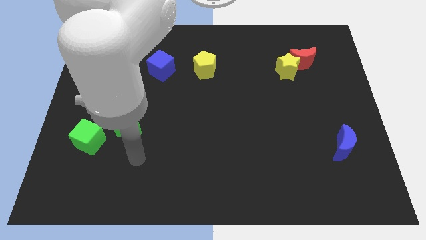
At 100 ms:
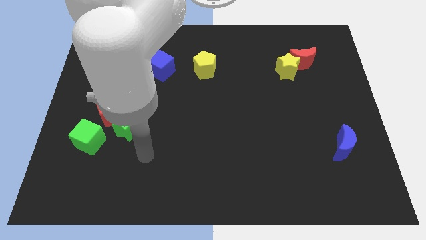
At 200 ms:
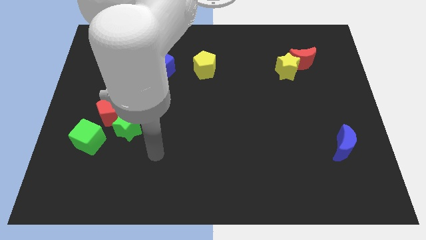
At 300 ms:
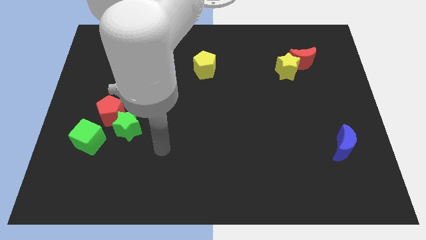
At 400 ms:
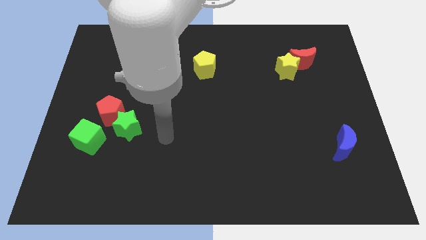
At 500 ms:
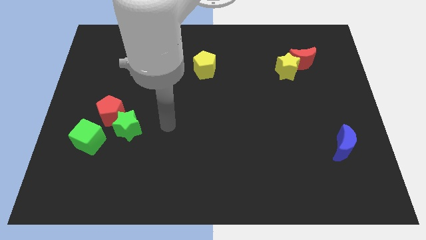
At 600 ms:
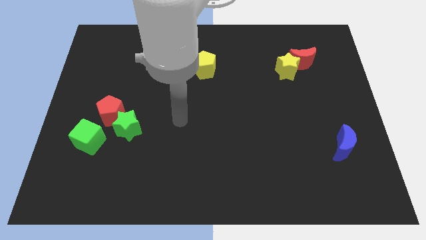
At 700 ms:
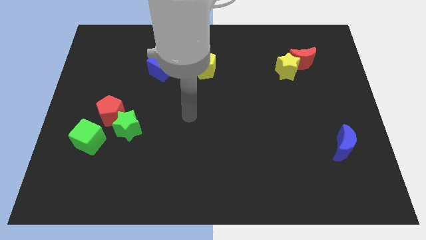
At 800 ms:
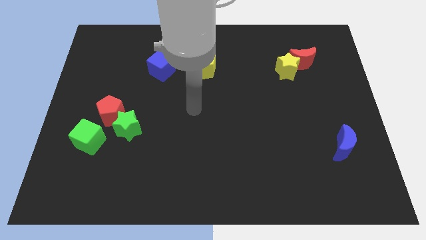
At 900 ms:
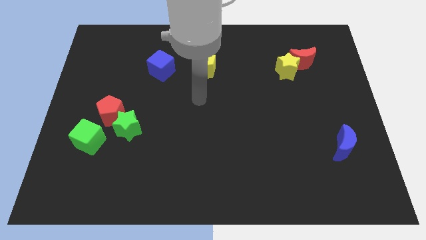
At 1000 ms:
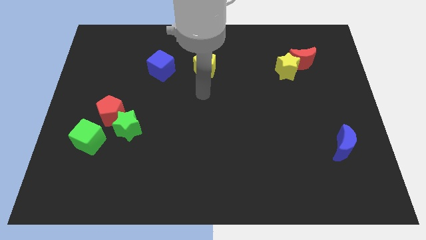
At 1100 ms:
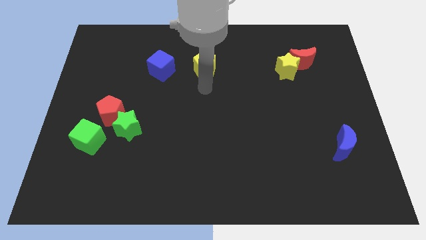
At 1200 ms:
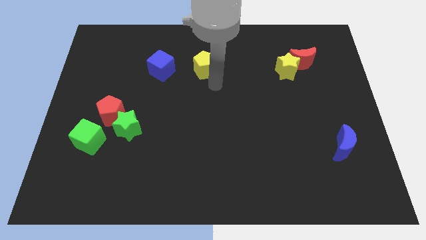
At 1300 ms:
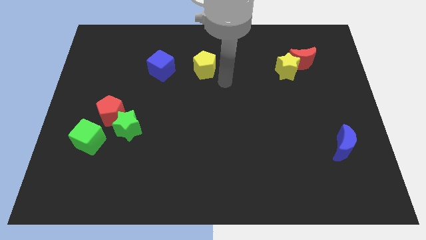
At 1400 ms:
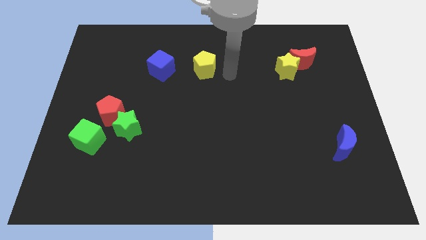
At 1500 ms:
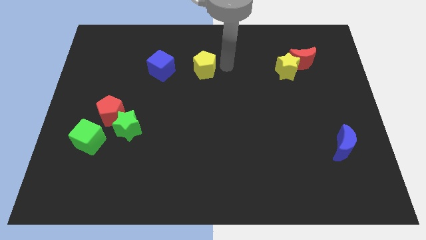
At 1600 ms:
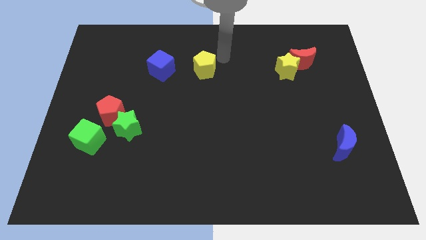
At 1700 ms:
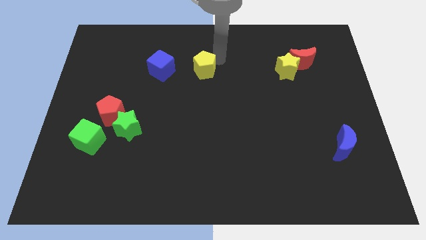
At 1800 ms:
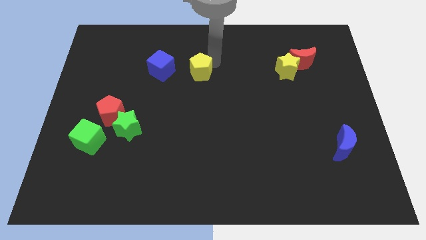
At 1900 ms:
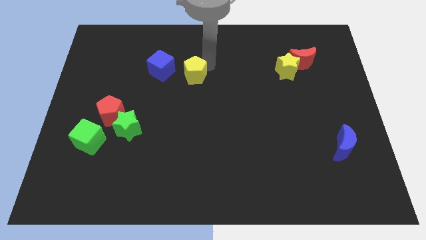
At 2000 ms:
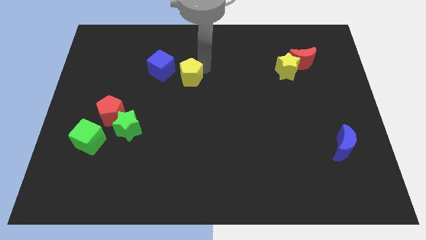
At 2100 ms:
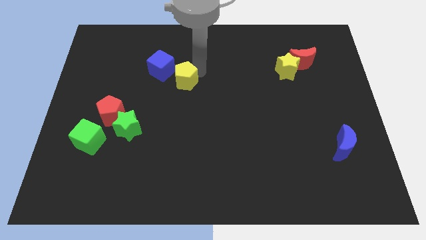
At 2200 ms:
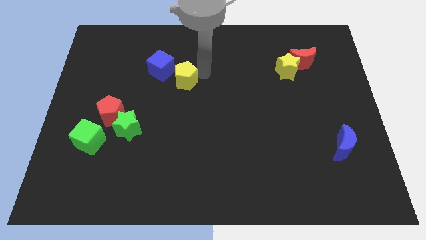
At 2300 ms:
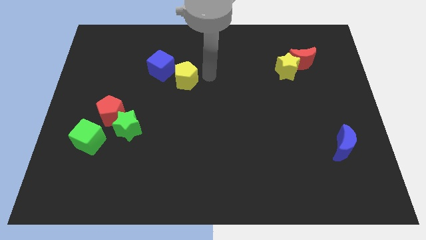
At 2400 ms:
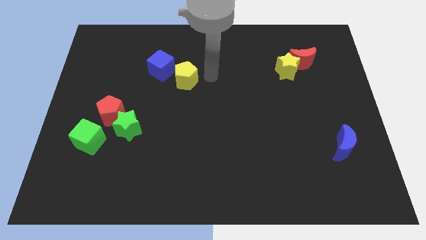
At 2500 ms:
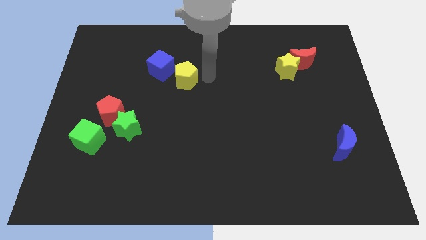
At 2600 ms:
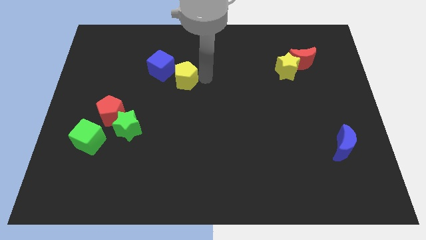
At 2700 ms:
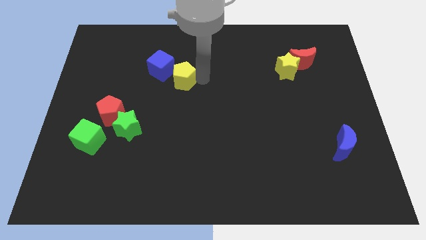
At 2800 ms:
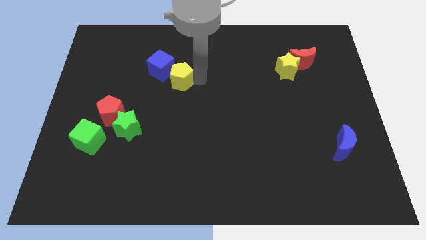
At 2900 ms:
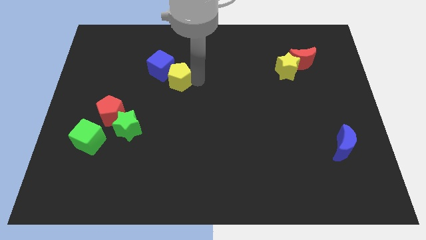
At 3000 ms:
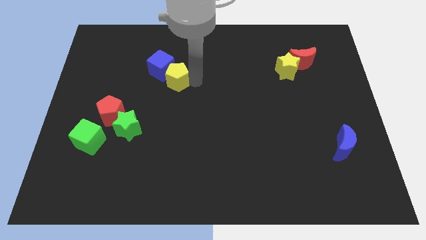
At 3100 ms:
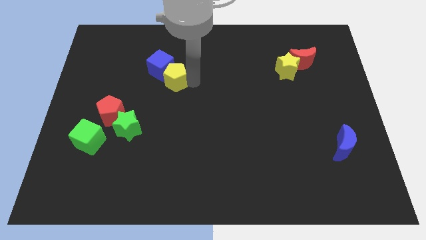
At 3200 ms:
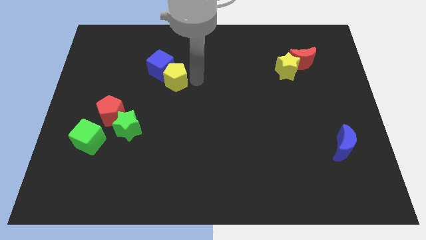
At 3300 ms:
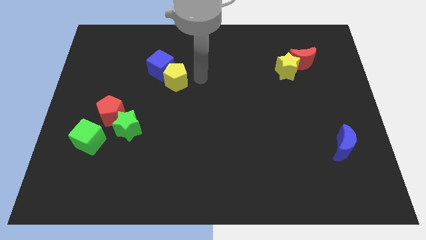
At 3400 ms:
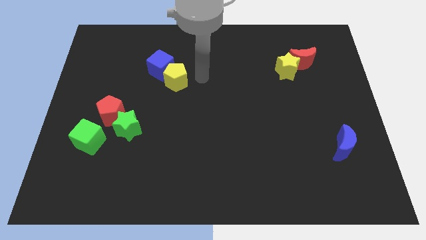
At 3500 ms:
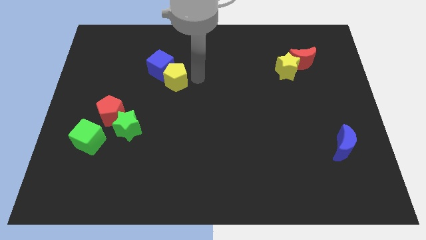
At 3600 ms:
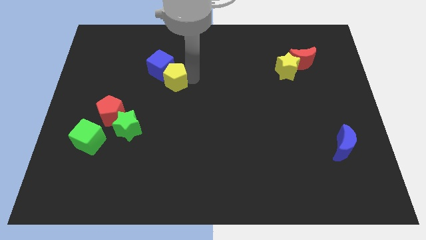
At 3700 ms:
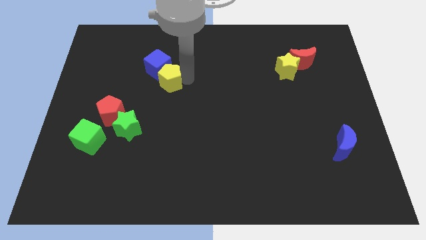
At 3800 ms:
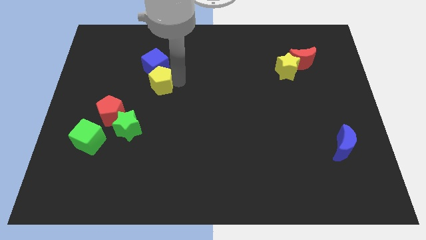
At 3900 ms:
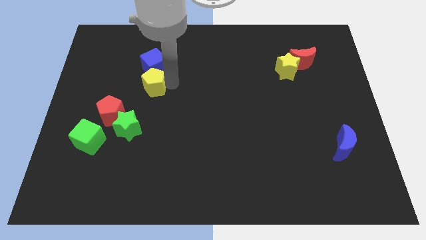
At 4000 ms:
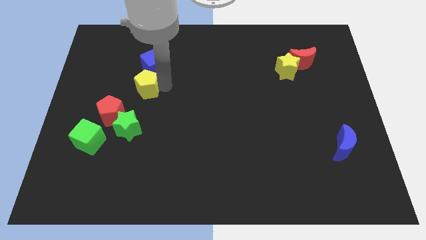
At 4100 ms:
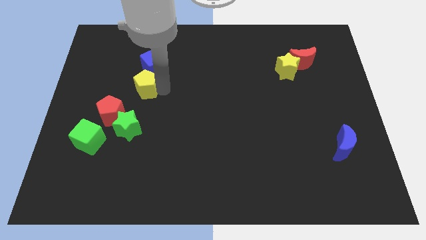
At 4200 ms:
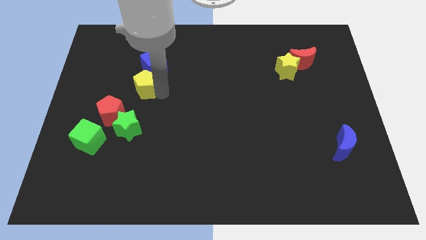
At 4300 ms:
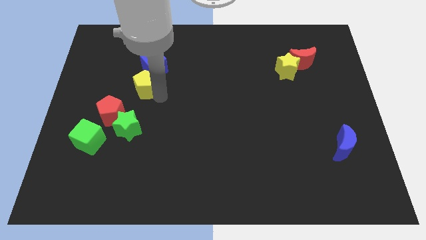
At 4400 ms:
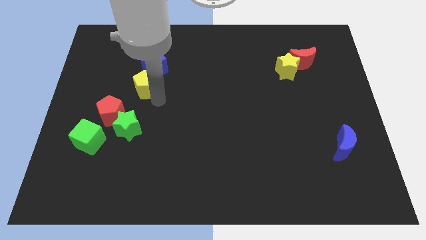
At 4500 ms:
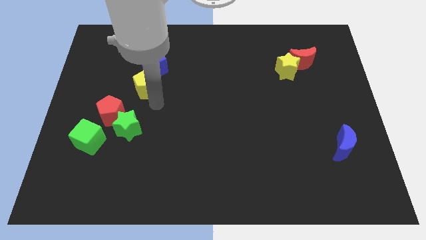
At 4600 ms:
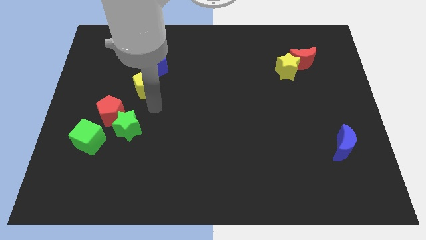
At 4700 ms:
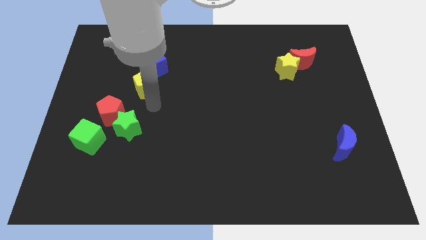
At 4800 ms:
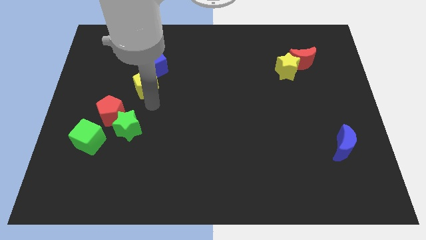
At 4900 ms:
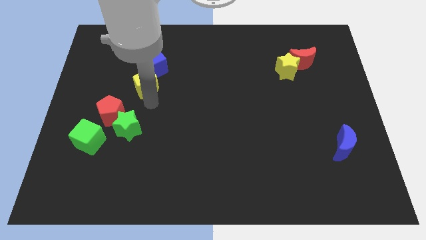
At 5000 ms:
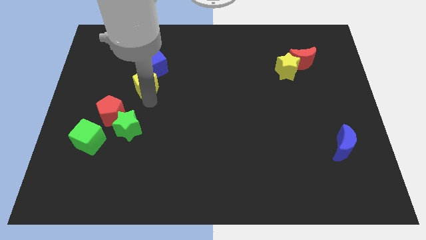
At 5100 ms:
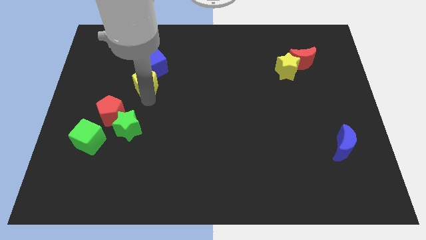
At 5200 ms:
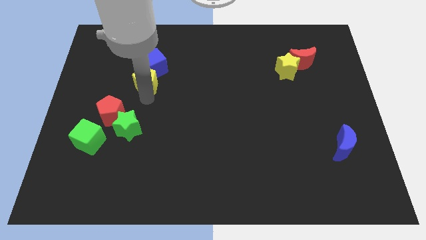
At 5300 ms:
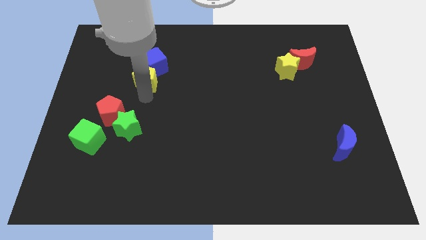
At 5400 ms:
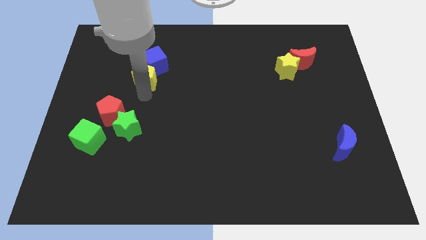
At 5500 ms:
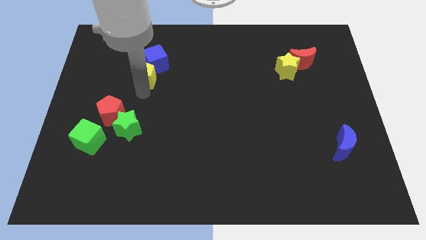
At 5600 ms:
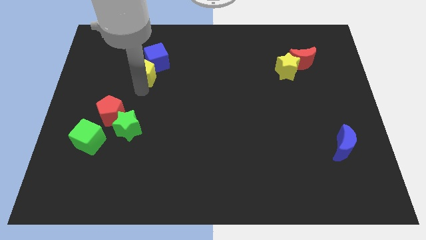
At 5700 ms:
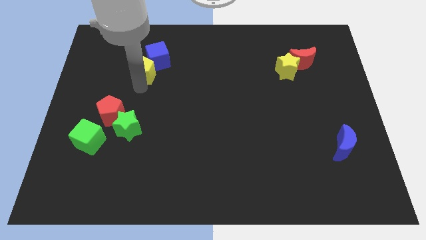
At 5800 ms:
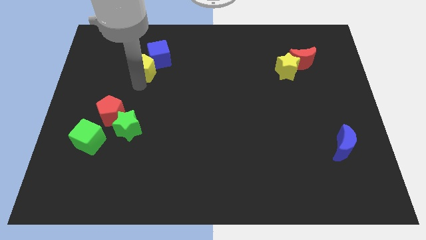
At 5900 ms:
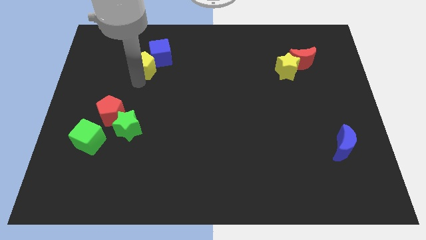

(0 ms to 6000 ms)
push the yellow pentagon left of the blue cube

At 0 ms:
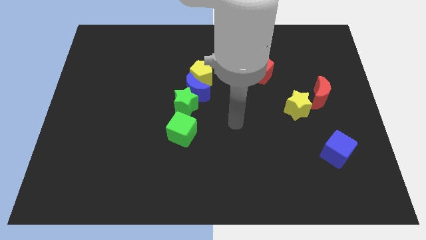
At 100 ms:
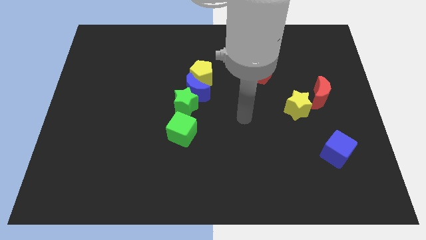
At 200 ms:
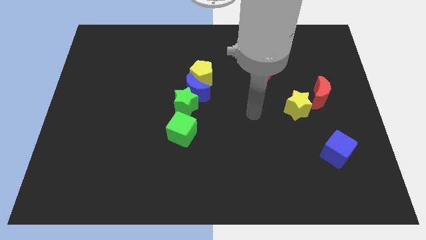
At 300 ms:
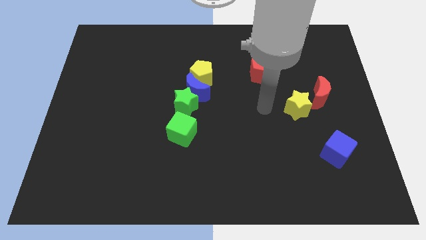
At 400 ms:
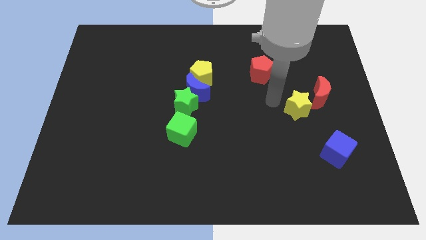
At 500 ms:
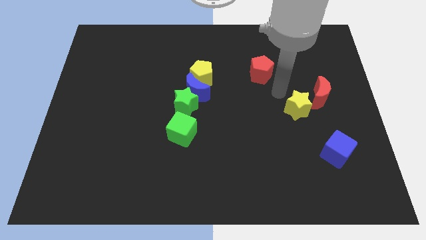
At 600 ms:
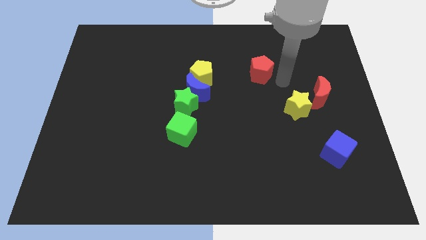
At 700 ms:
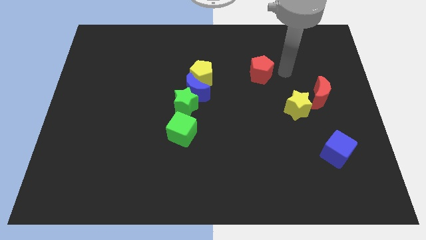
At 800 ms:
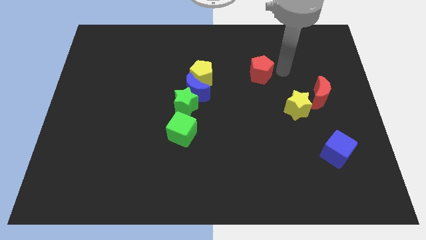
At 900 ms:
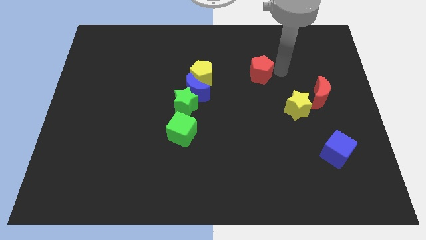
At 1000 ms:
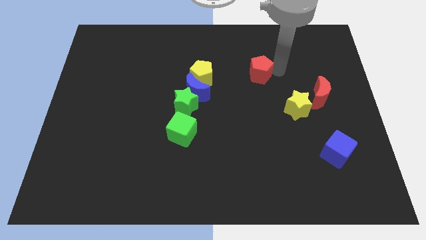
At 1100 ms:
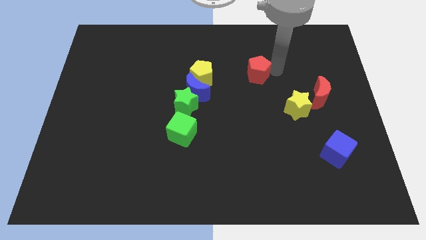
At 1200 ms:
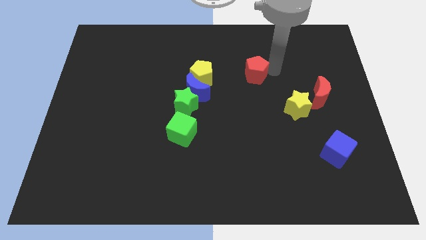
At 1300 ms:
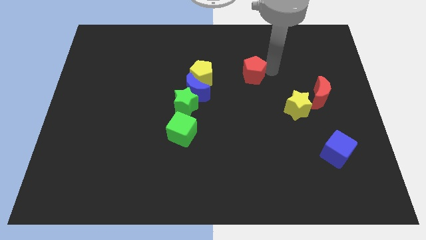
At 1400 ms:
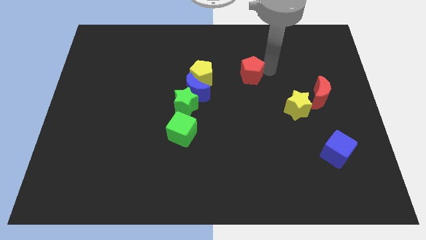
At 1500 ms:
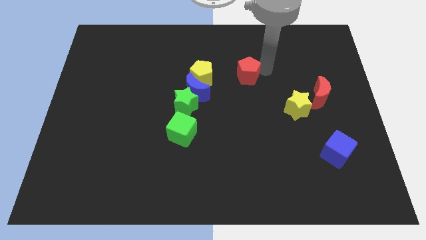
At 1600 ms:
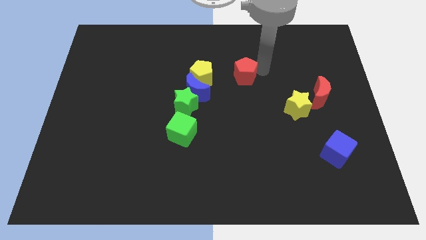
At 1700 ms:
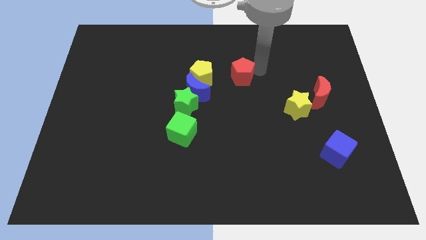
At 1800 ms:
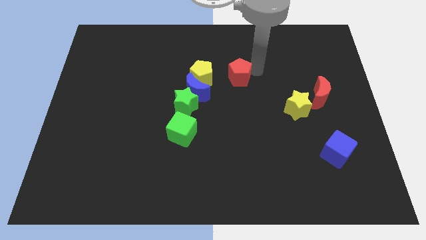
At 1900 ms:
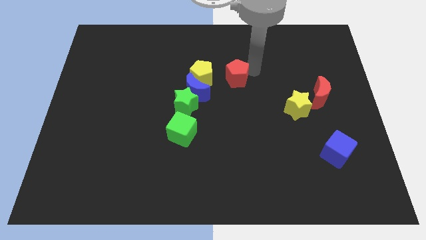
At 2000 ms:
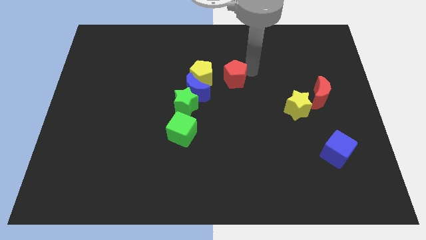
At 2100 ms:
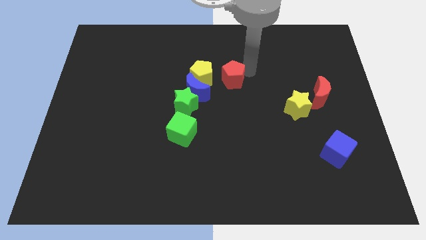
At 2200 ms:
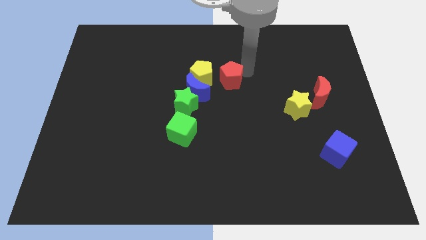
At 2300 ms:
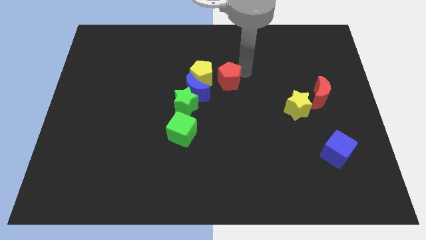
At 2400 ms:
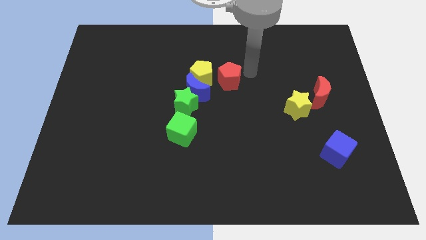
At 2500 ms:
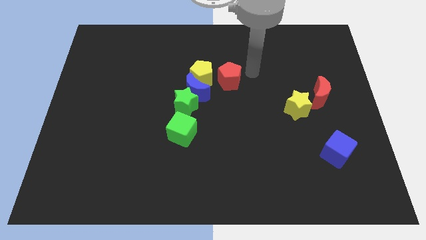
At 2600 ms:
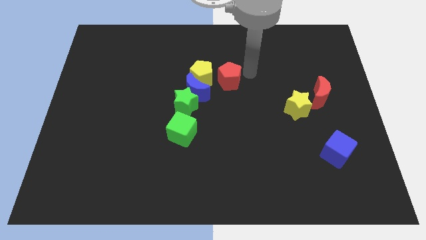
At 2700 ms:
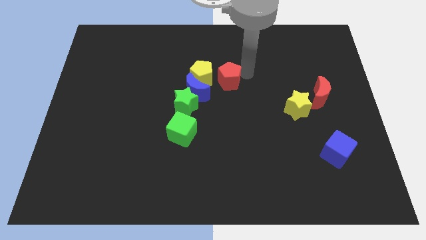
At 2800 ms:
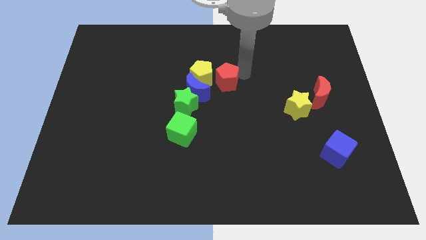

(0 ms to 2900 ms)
slide the red pentagon to the top right side of the green star

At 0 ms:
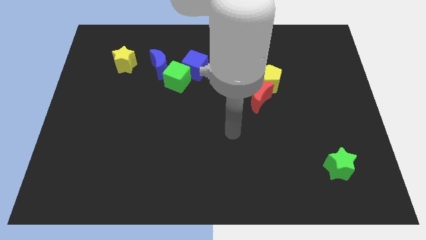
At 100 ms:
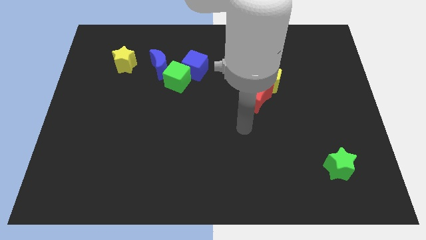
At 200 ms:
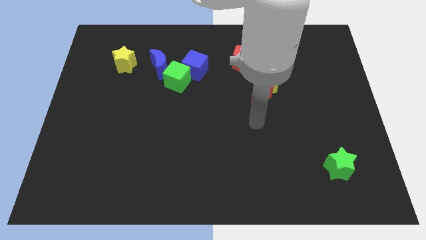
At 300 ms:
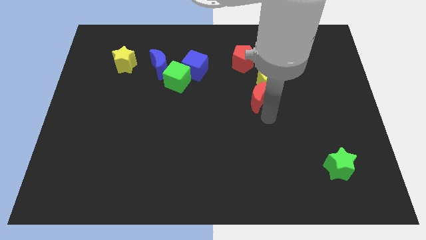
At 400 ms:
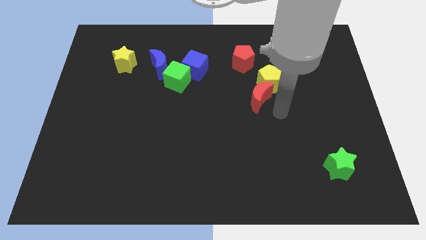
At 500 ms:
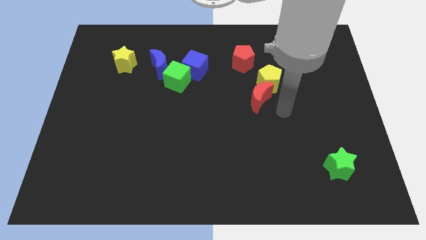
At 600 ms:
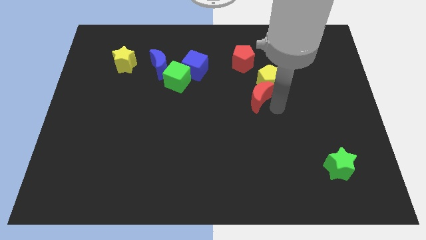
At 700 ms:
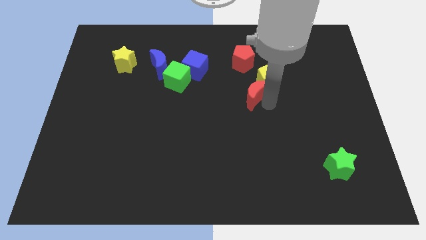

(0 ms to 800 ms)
move the red moon left of the yellow pentagon
